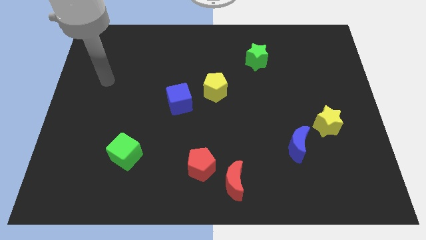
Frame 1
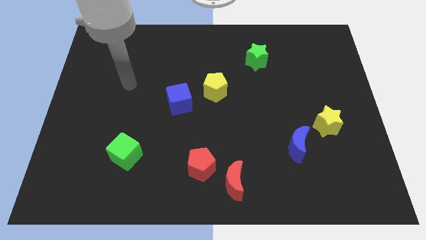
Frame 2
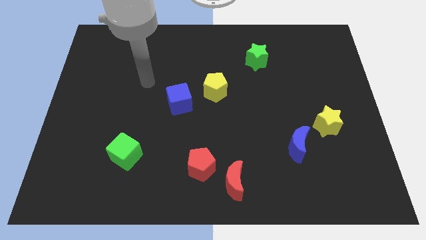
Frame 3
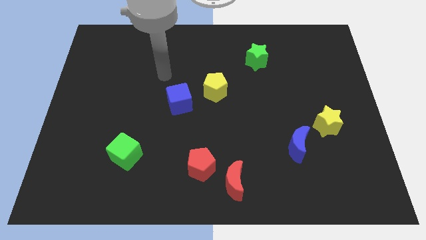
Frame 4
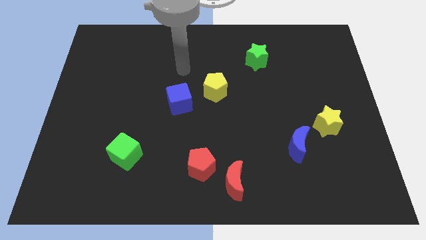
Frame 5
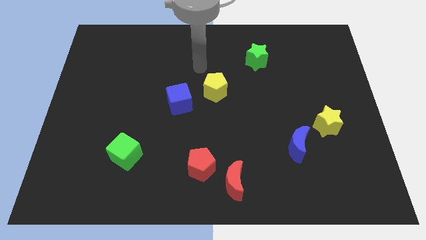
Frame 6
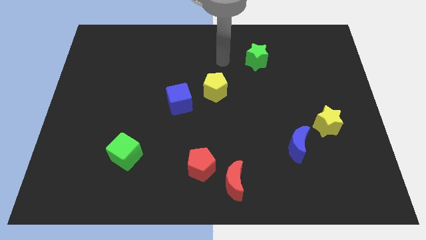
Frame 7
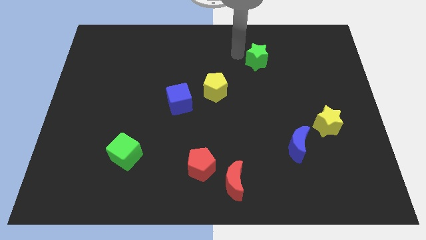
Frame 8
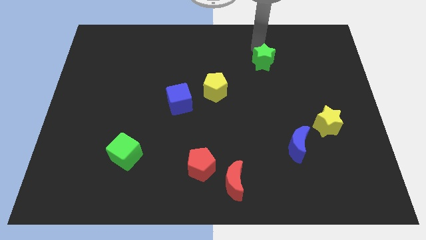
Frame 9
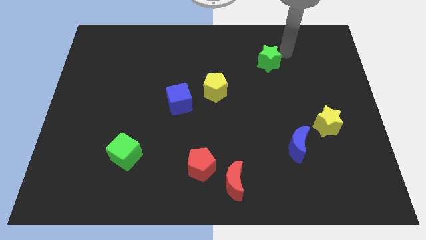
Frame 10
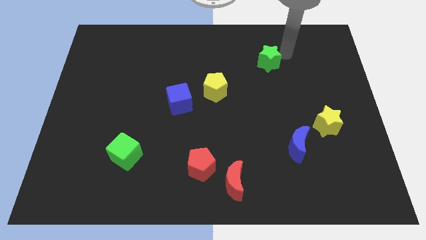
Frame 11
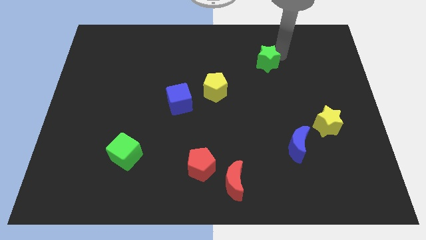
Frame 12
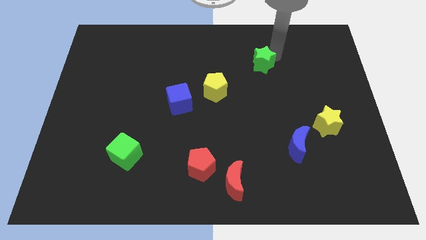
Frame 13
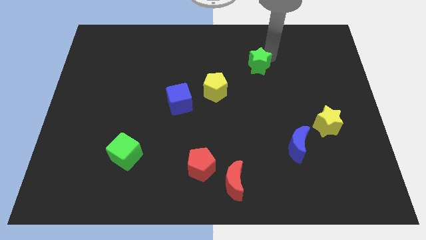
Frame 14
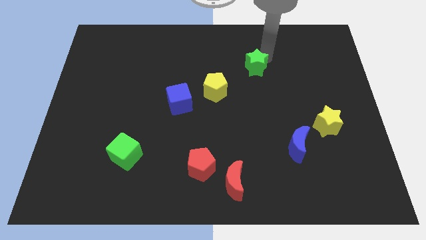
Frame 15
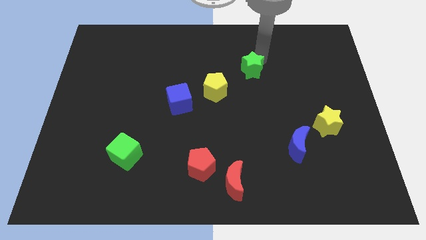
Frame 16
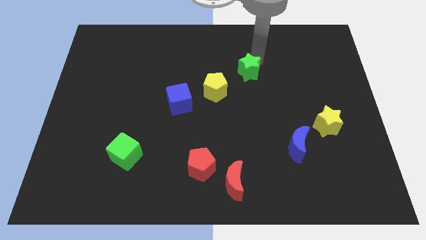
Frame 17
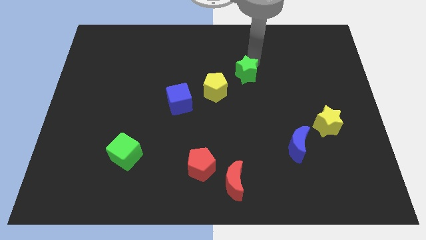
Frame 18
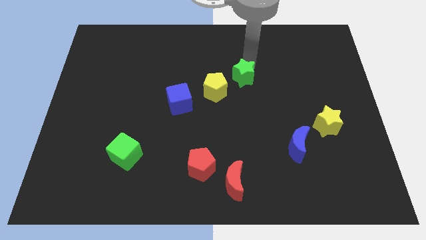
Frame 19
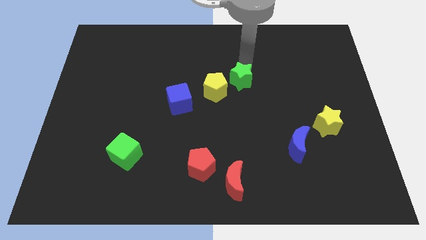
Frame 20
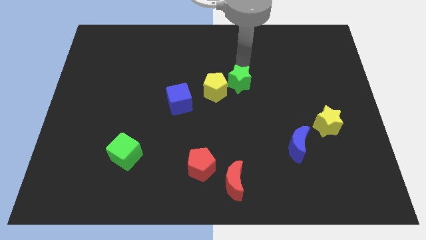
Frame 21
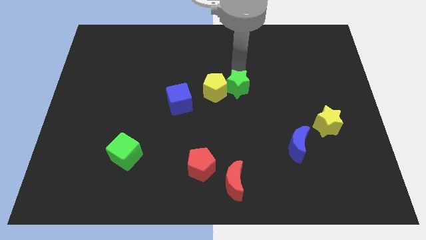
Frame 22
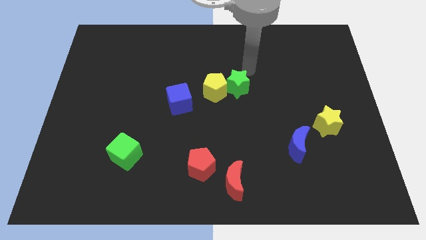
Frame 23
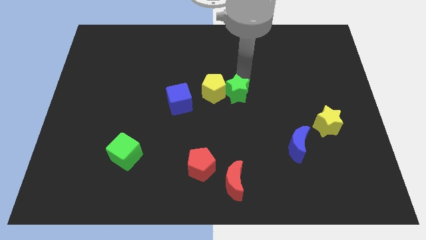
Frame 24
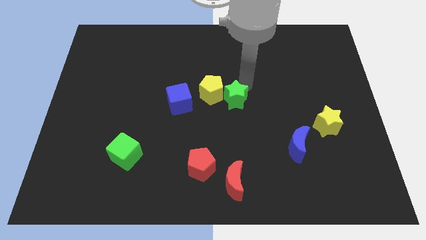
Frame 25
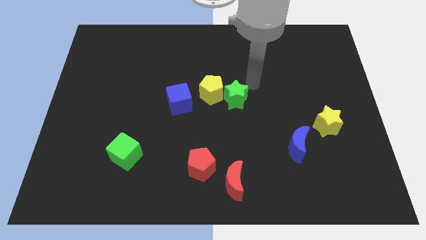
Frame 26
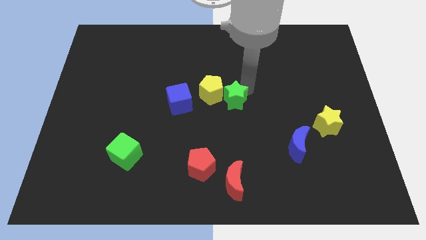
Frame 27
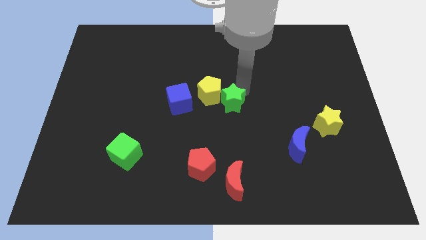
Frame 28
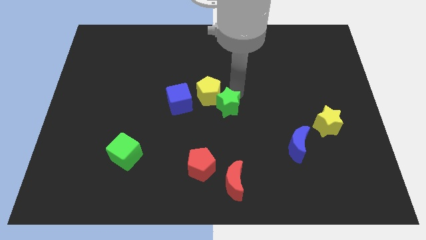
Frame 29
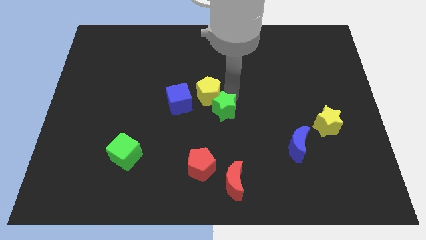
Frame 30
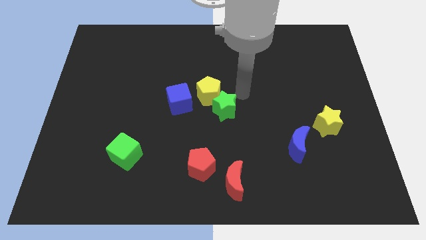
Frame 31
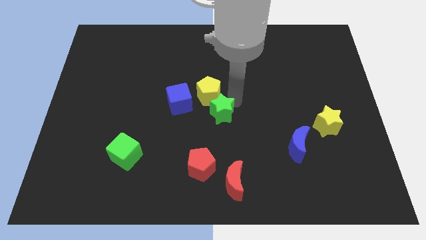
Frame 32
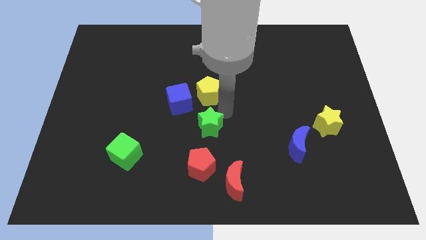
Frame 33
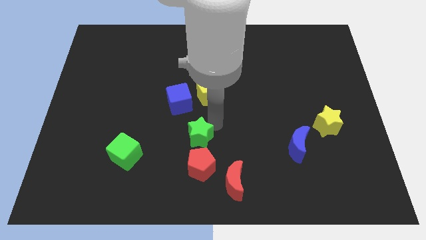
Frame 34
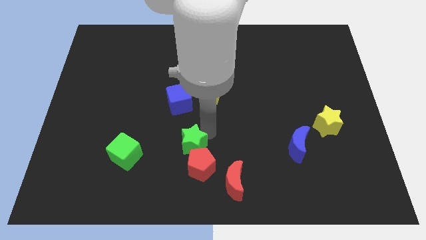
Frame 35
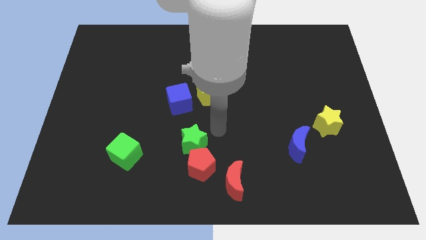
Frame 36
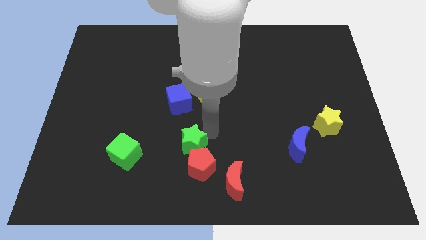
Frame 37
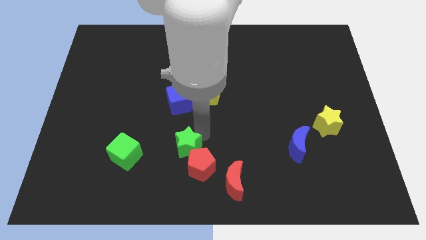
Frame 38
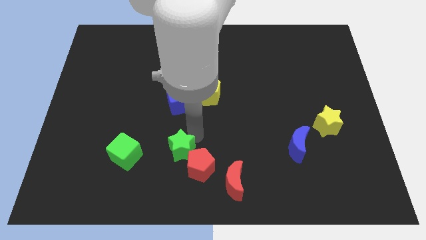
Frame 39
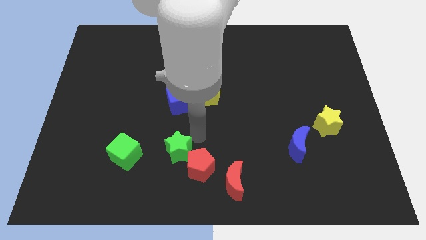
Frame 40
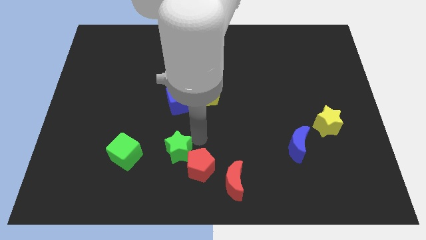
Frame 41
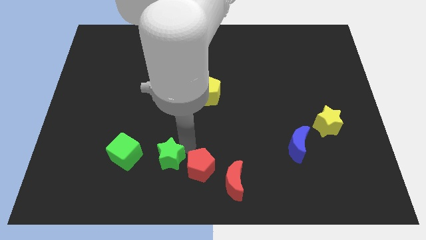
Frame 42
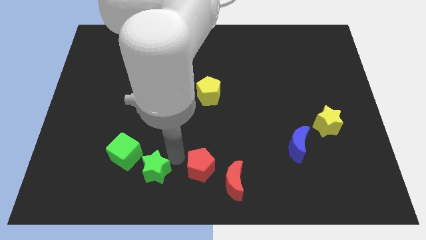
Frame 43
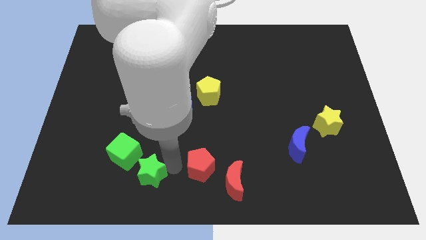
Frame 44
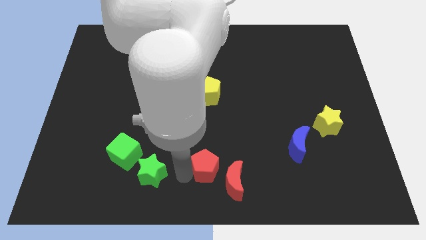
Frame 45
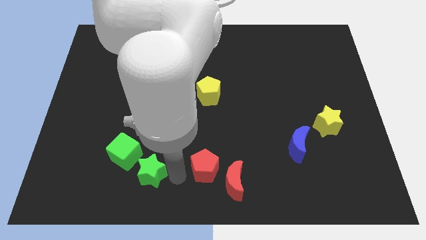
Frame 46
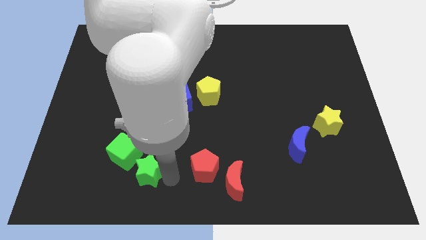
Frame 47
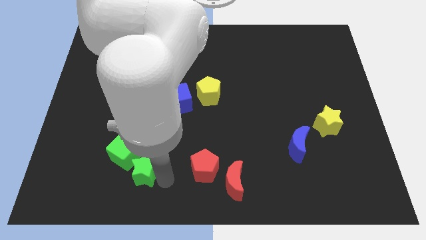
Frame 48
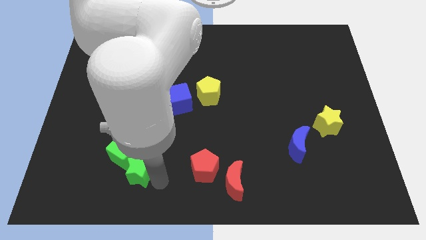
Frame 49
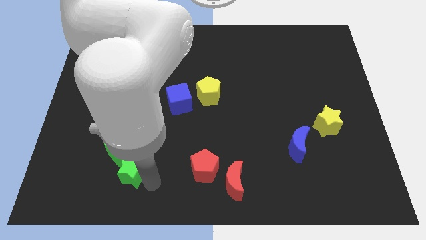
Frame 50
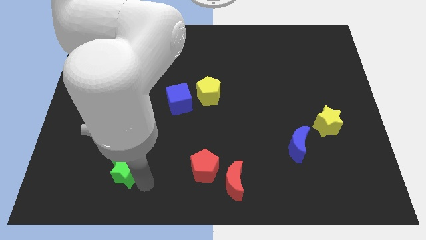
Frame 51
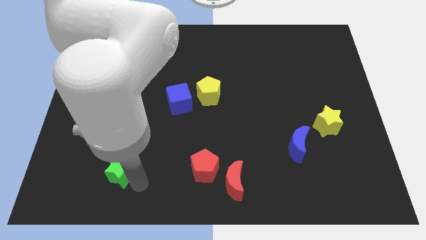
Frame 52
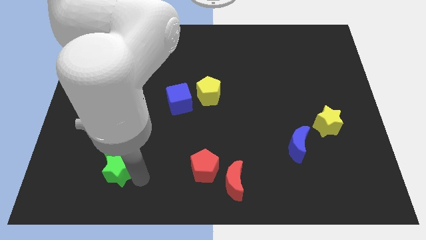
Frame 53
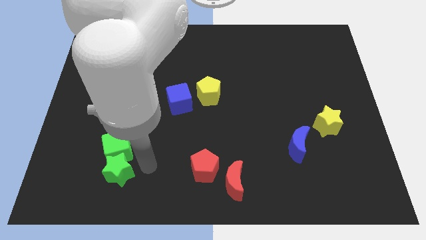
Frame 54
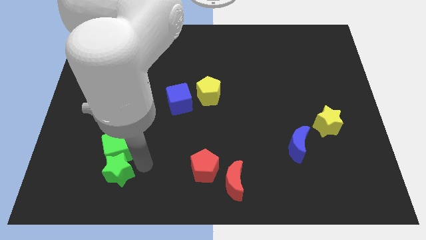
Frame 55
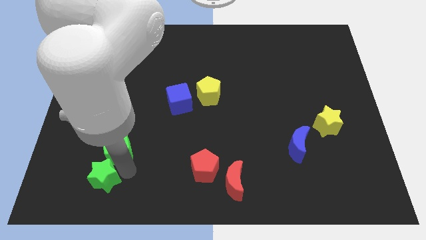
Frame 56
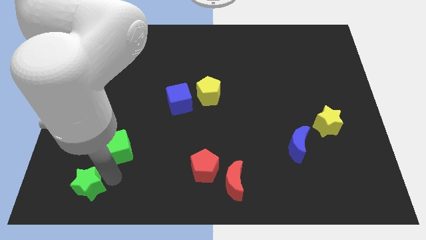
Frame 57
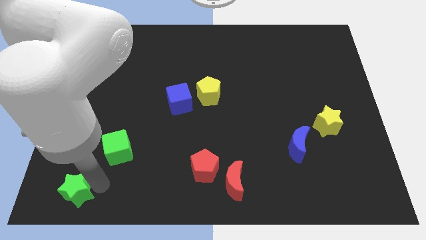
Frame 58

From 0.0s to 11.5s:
slide the green star to the bottom left
